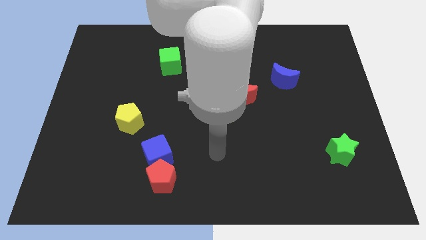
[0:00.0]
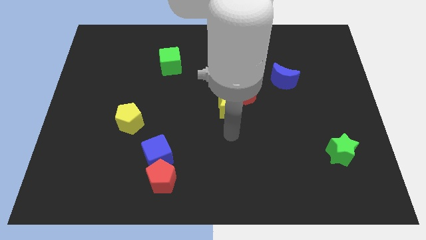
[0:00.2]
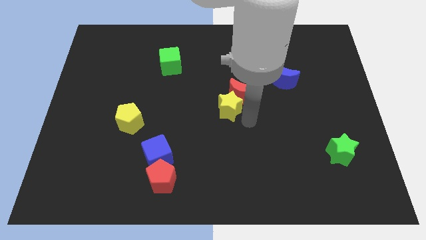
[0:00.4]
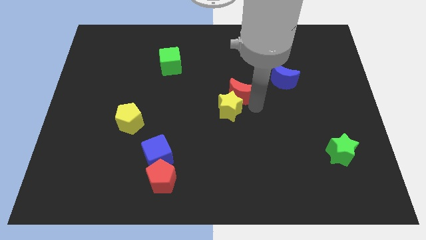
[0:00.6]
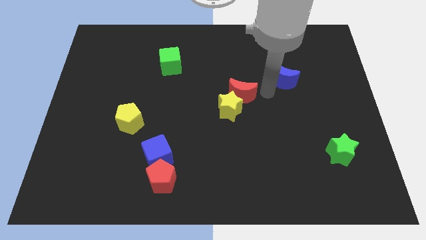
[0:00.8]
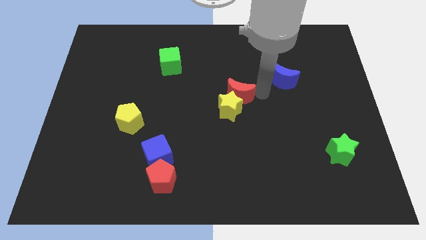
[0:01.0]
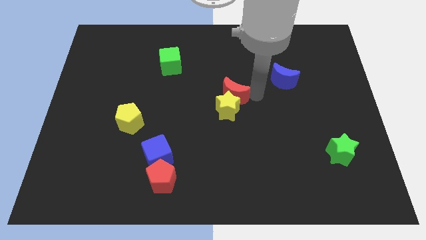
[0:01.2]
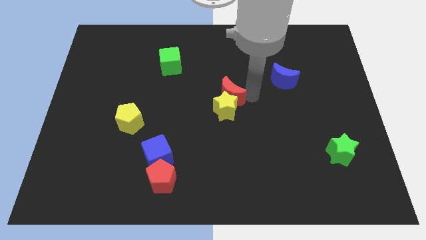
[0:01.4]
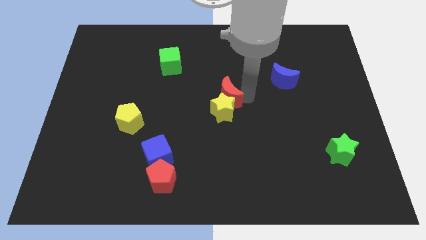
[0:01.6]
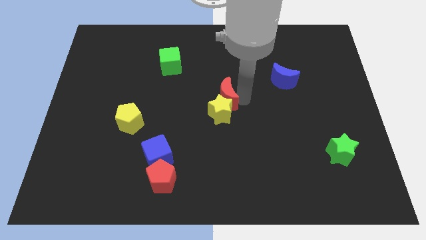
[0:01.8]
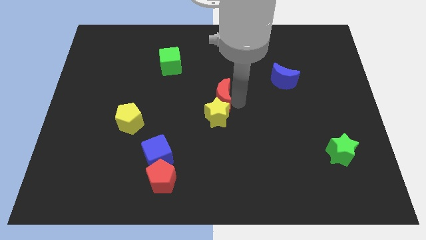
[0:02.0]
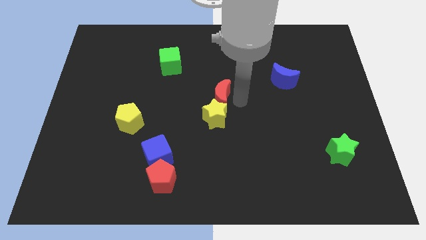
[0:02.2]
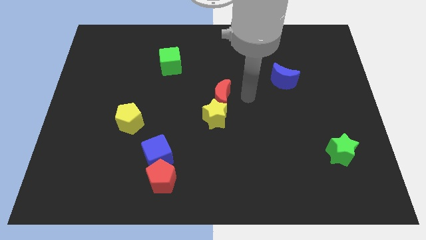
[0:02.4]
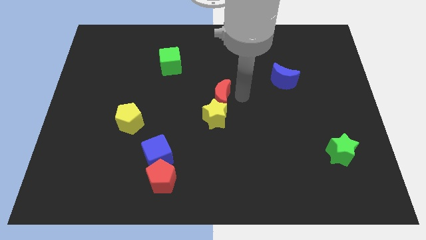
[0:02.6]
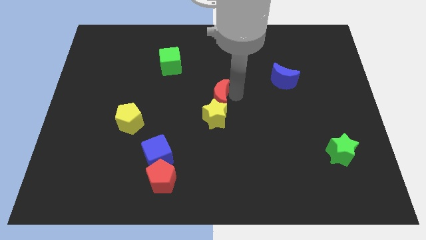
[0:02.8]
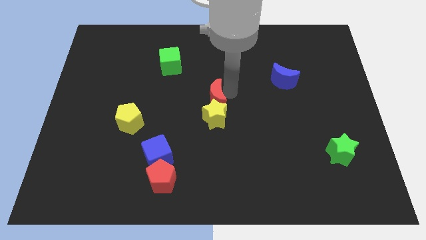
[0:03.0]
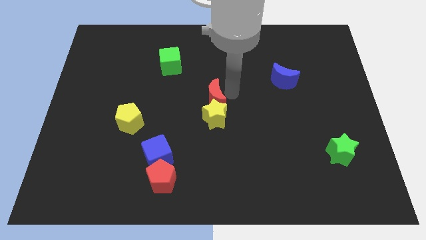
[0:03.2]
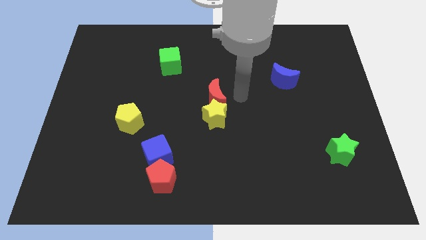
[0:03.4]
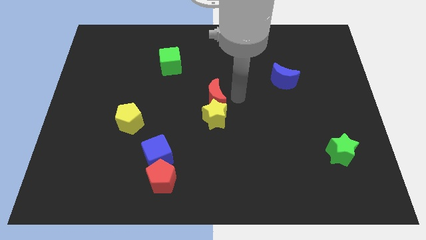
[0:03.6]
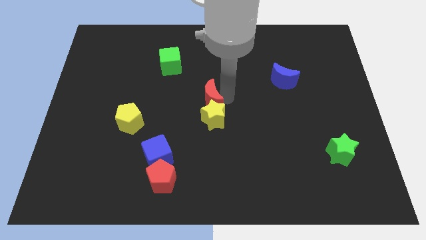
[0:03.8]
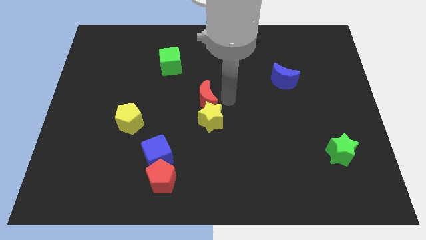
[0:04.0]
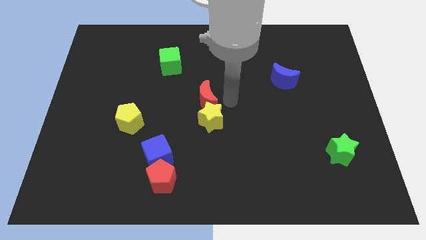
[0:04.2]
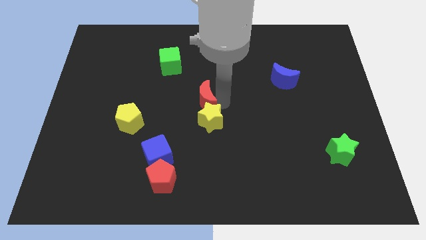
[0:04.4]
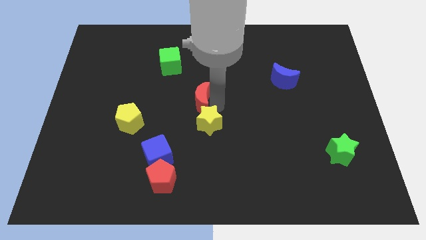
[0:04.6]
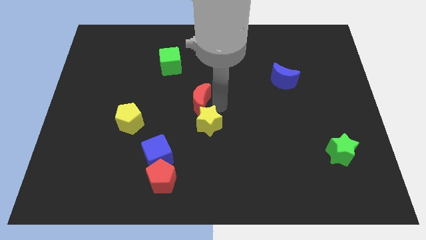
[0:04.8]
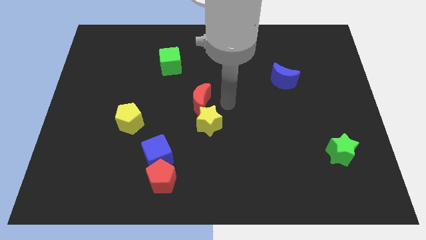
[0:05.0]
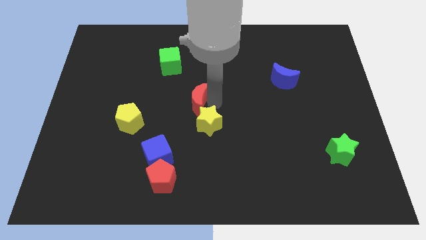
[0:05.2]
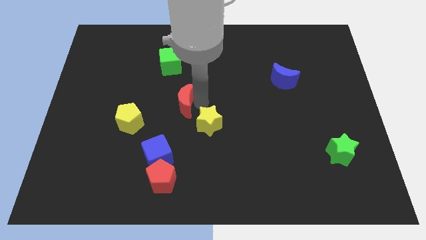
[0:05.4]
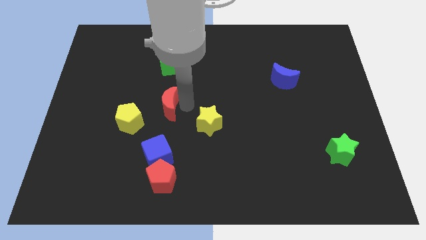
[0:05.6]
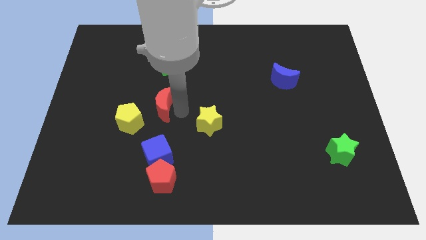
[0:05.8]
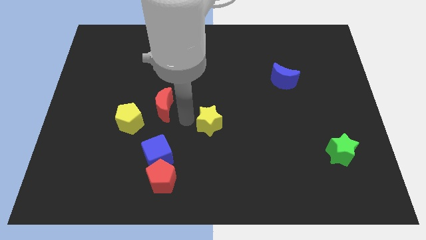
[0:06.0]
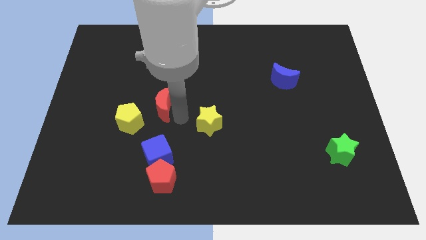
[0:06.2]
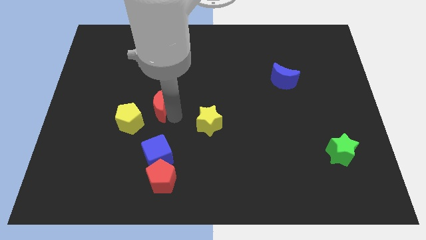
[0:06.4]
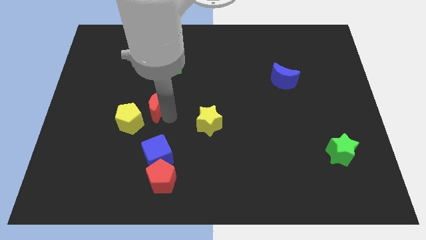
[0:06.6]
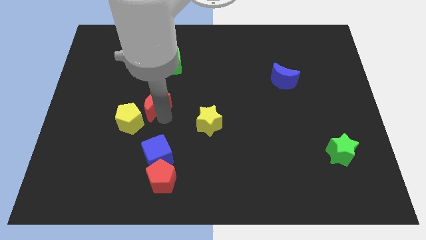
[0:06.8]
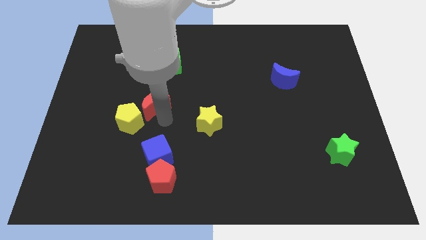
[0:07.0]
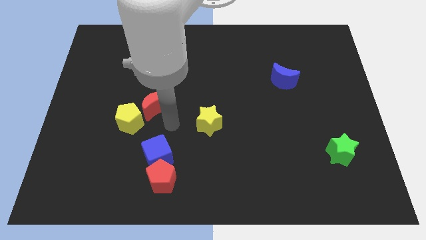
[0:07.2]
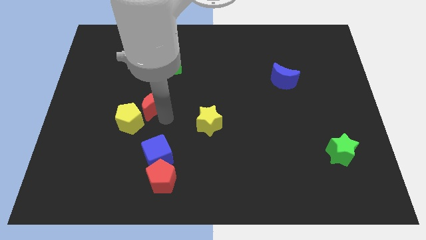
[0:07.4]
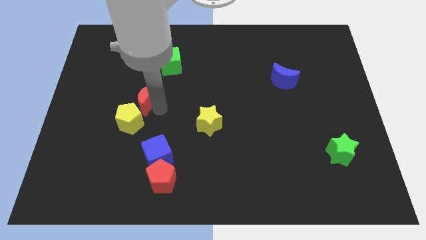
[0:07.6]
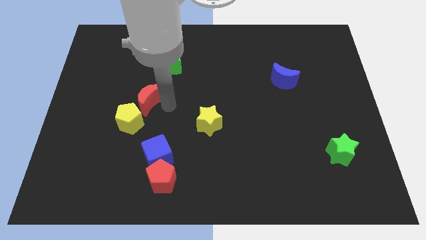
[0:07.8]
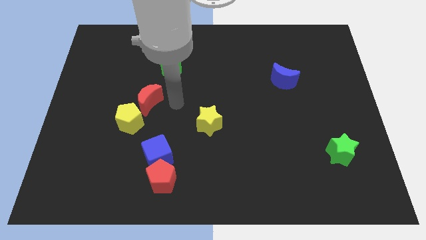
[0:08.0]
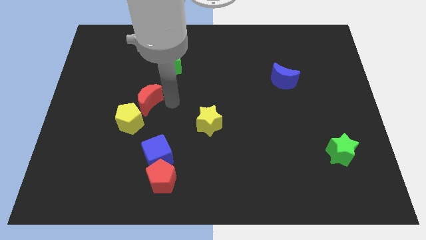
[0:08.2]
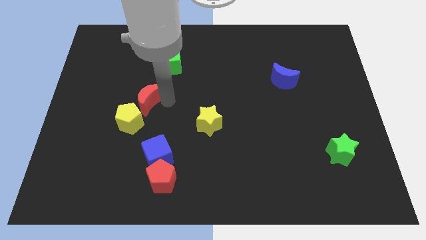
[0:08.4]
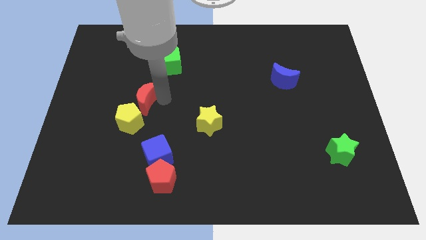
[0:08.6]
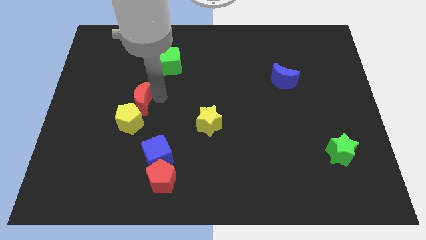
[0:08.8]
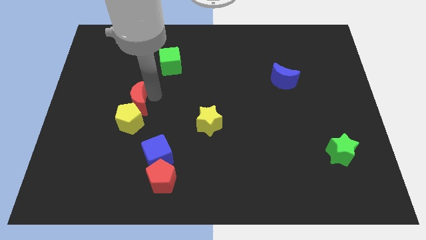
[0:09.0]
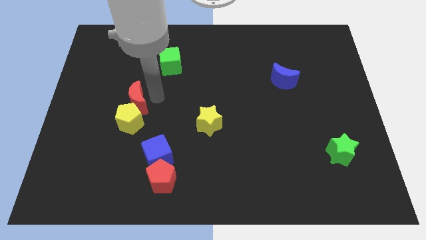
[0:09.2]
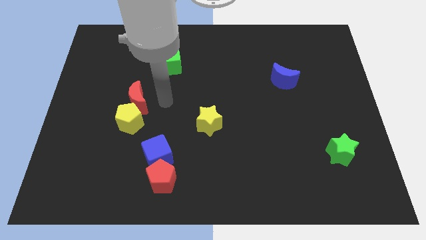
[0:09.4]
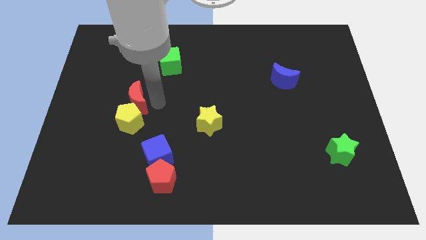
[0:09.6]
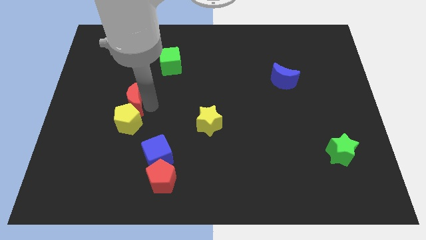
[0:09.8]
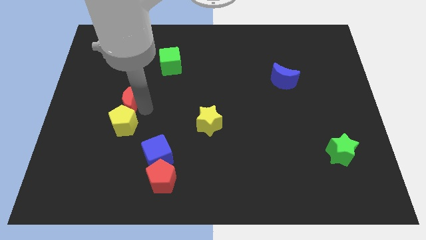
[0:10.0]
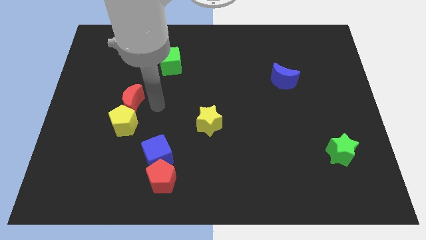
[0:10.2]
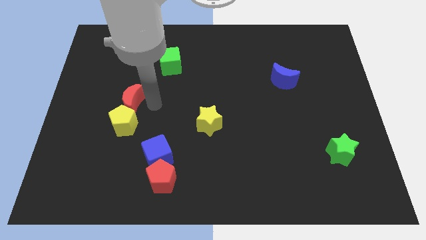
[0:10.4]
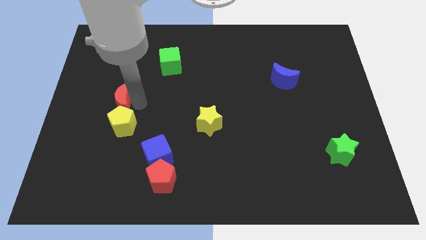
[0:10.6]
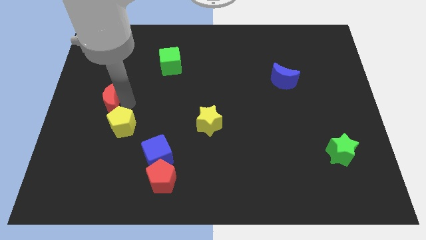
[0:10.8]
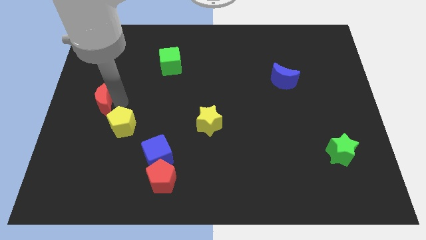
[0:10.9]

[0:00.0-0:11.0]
push the red moon to the left side of the board

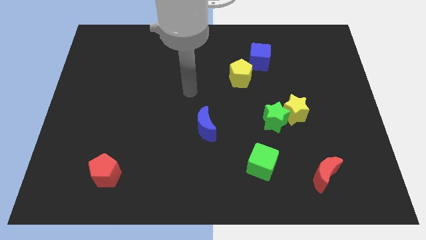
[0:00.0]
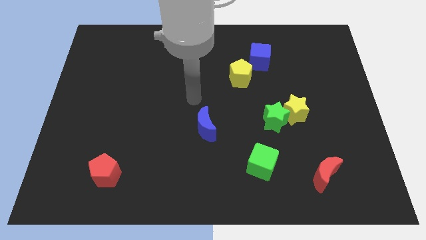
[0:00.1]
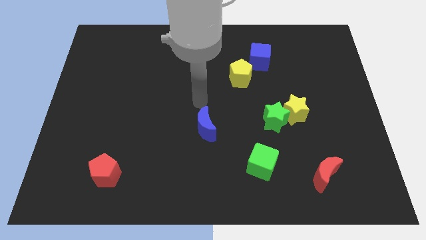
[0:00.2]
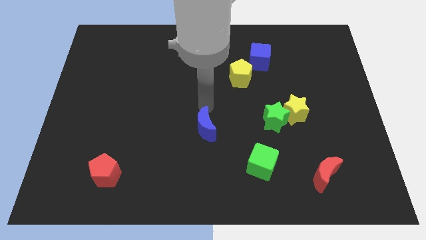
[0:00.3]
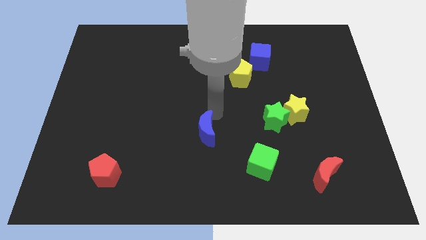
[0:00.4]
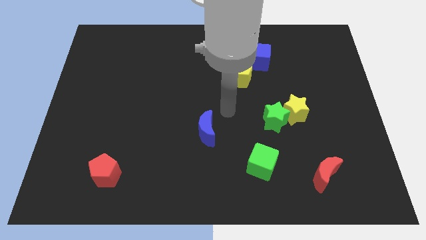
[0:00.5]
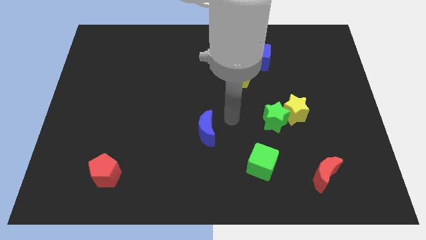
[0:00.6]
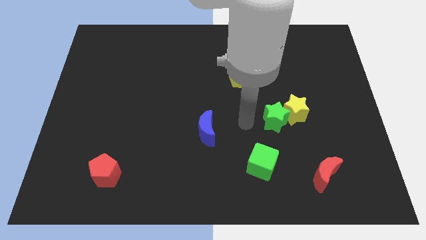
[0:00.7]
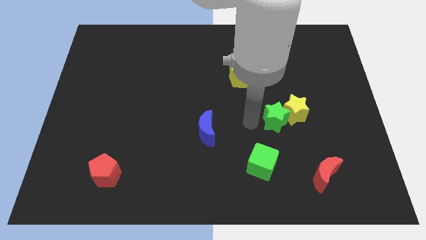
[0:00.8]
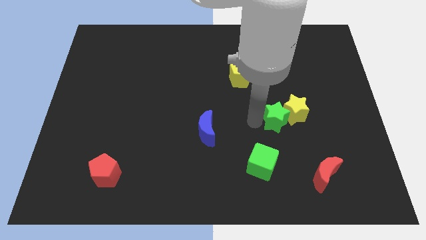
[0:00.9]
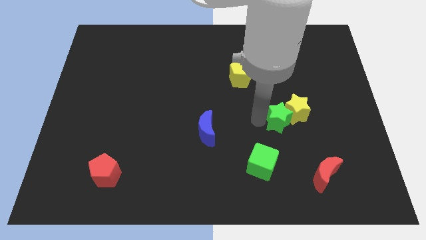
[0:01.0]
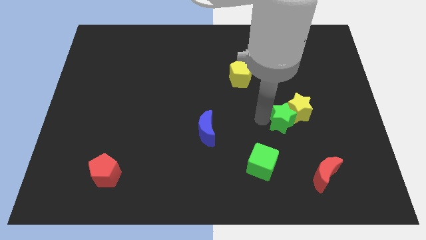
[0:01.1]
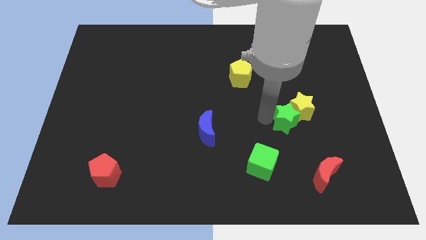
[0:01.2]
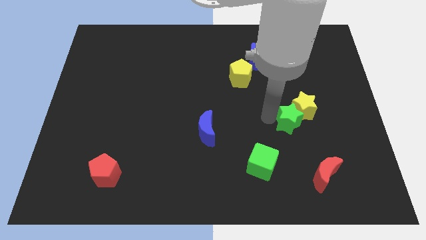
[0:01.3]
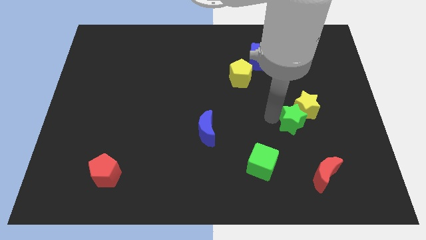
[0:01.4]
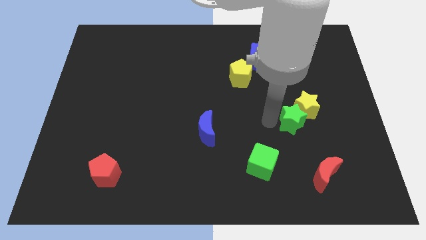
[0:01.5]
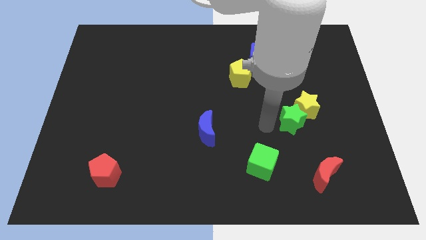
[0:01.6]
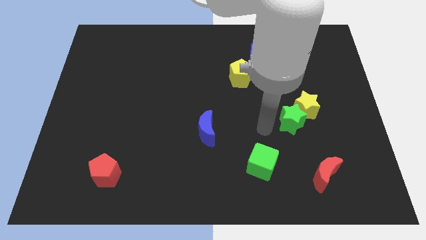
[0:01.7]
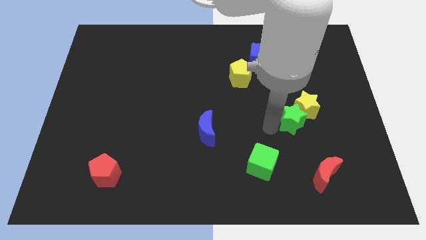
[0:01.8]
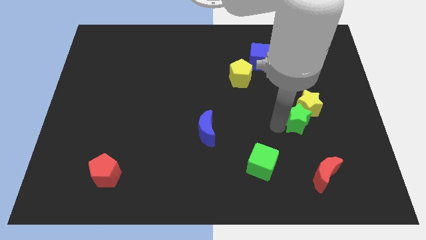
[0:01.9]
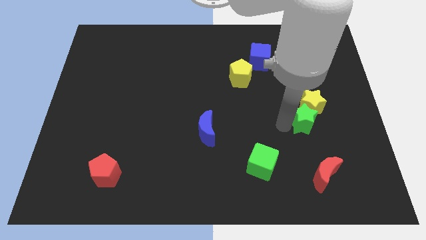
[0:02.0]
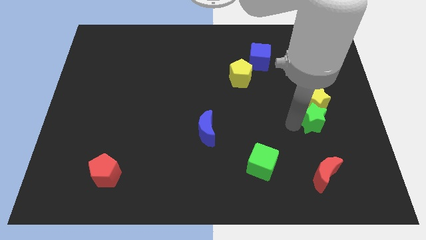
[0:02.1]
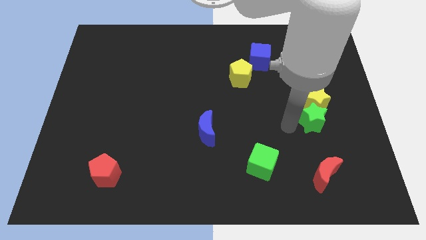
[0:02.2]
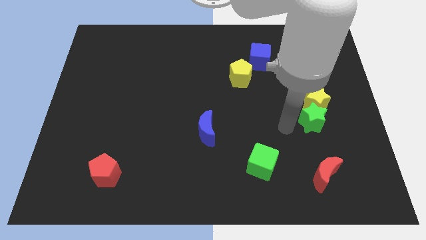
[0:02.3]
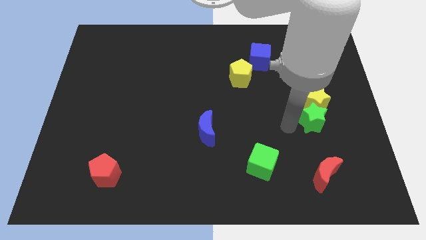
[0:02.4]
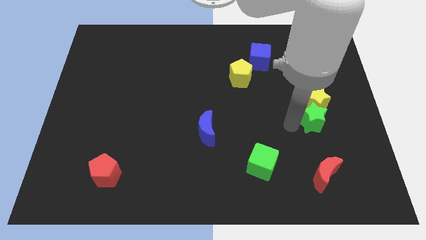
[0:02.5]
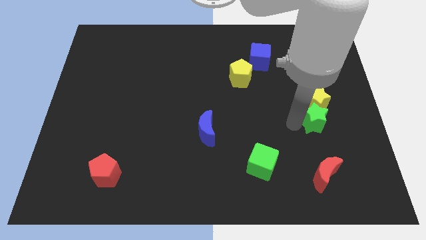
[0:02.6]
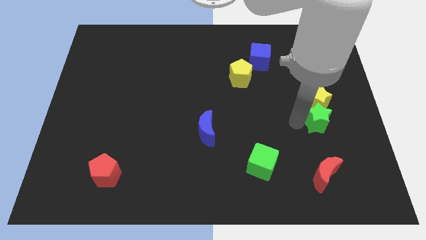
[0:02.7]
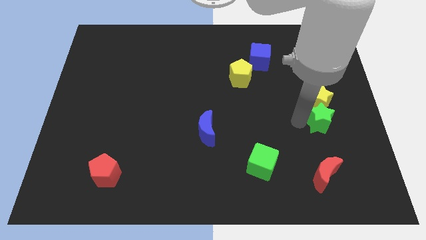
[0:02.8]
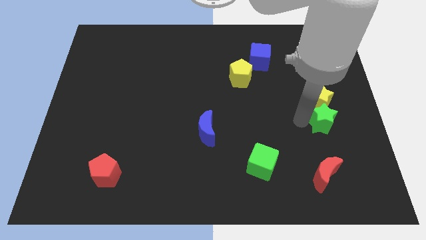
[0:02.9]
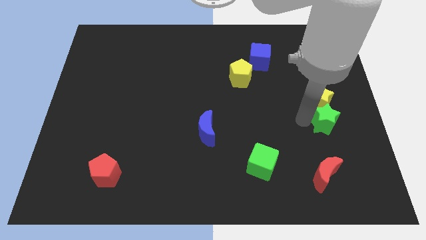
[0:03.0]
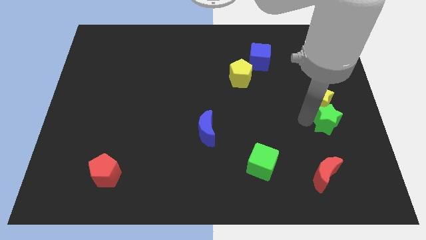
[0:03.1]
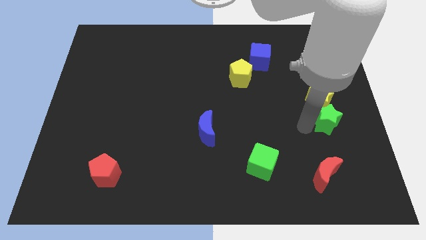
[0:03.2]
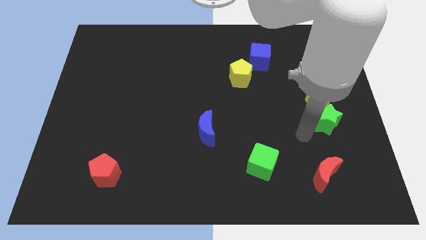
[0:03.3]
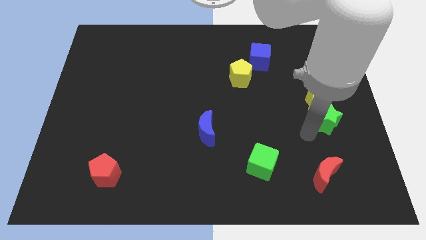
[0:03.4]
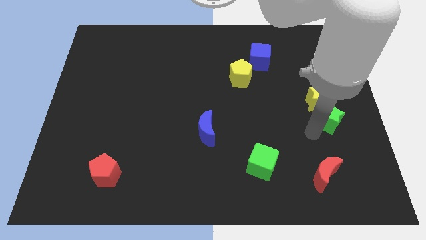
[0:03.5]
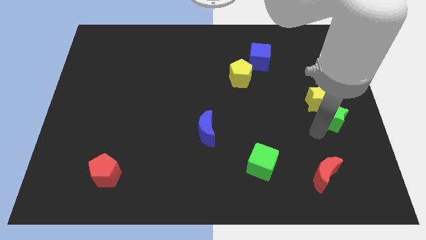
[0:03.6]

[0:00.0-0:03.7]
slide the green star to the center right
